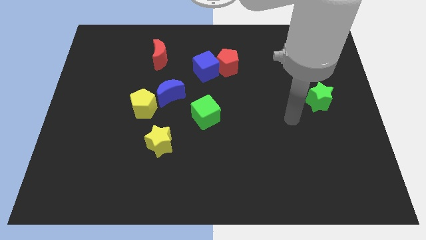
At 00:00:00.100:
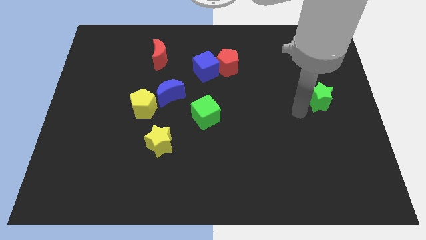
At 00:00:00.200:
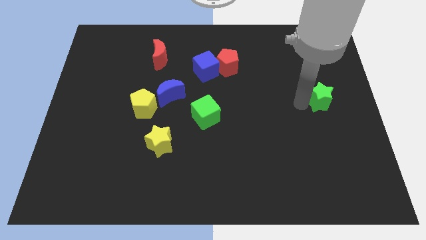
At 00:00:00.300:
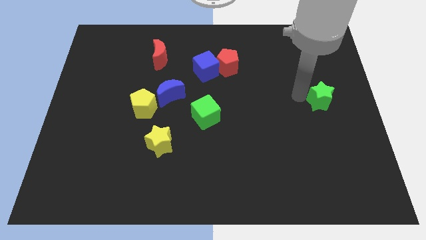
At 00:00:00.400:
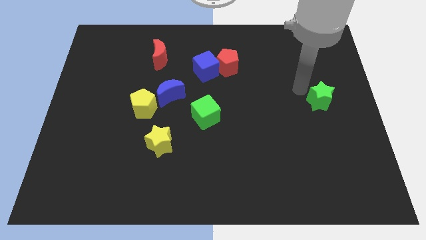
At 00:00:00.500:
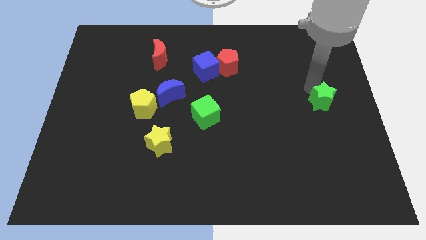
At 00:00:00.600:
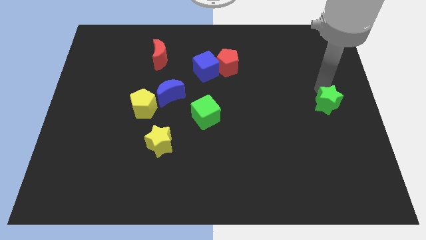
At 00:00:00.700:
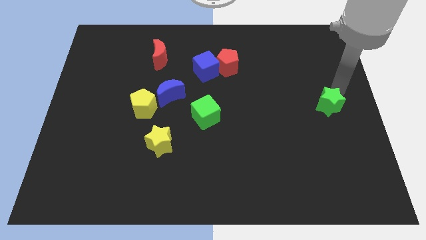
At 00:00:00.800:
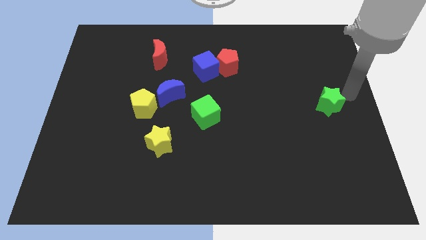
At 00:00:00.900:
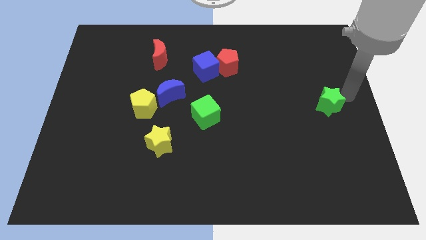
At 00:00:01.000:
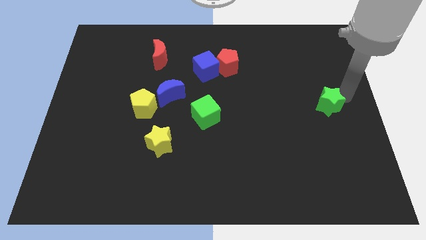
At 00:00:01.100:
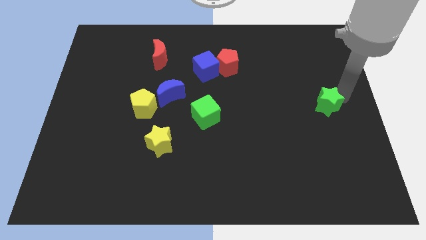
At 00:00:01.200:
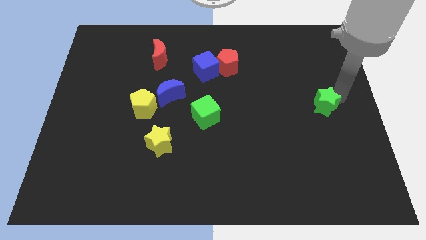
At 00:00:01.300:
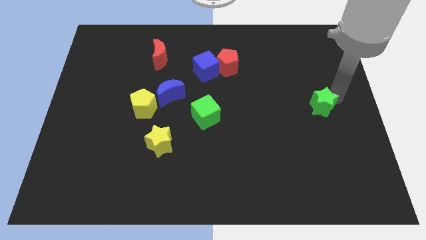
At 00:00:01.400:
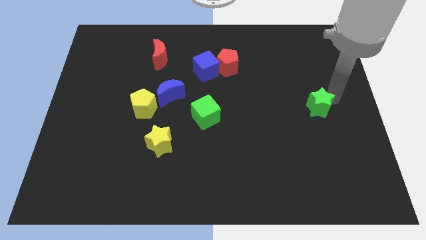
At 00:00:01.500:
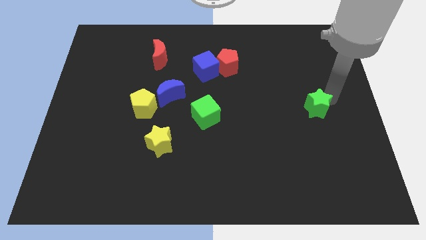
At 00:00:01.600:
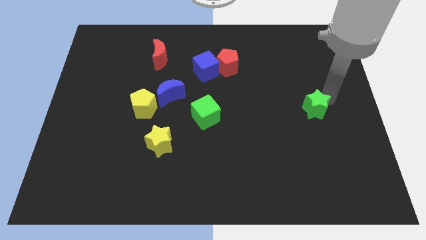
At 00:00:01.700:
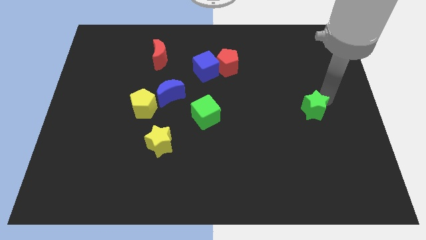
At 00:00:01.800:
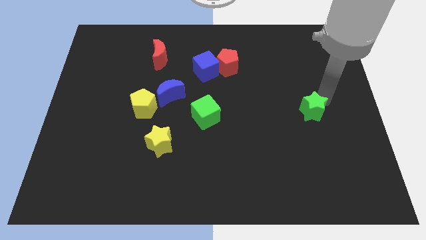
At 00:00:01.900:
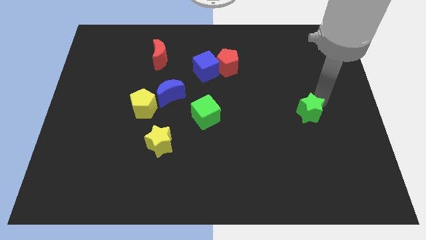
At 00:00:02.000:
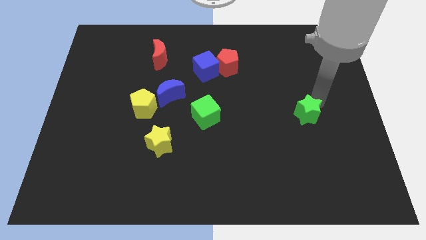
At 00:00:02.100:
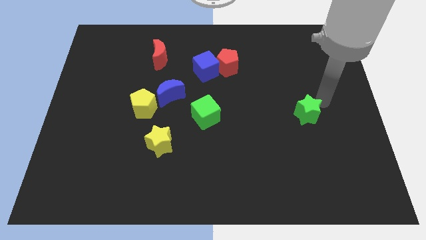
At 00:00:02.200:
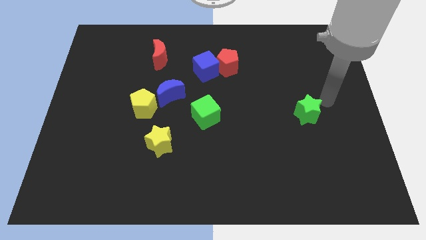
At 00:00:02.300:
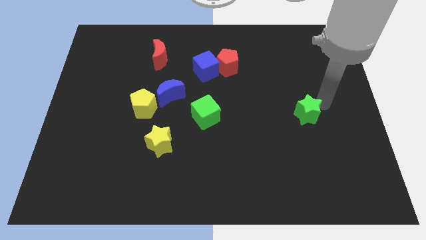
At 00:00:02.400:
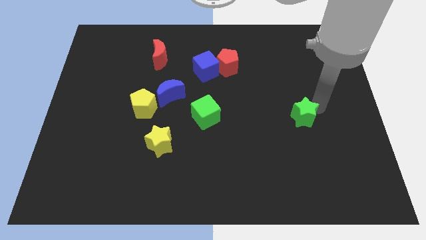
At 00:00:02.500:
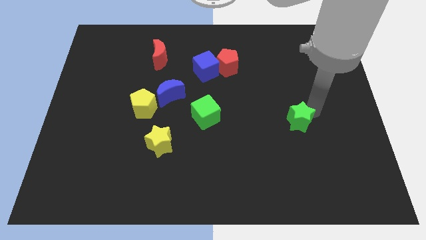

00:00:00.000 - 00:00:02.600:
slide the green star downwards and to the left diagonally a bit

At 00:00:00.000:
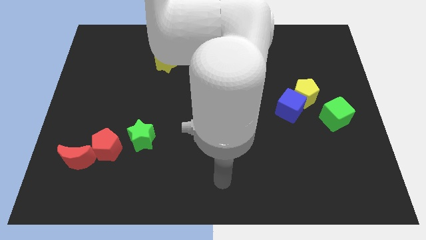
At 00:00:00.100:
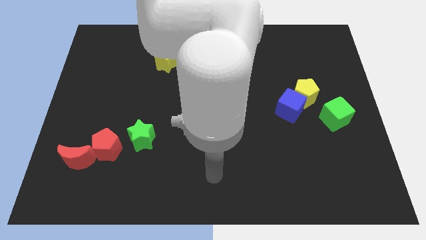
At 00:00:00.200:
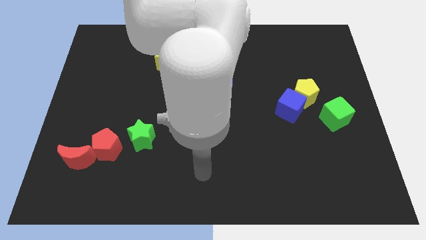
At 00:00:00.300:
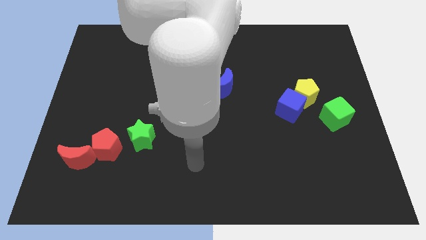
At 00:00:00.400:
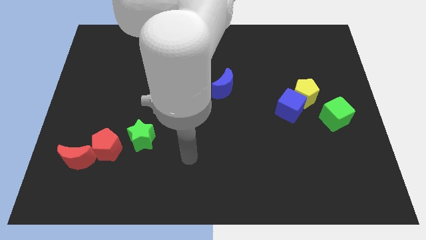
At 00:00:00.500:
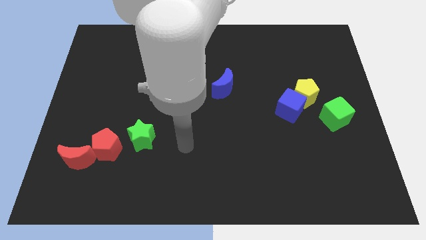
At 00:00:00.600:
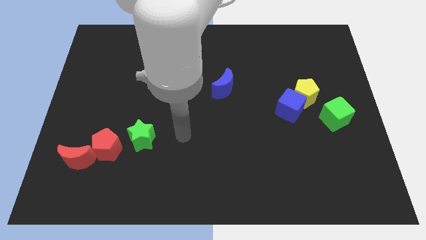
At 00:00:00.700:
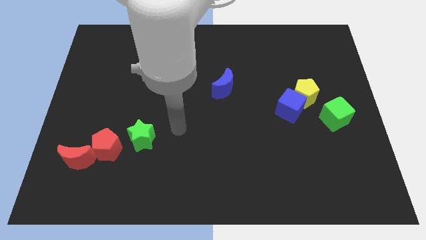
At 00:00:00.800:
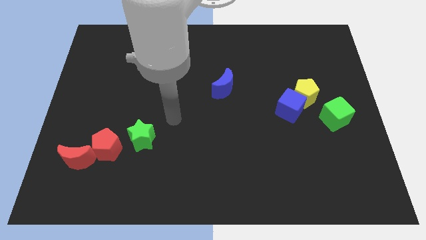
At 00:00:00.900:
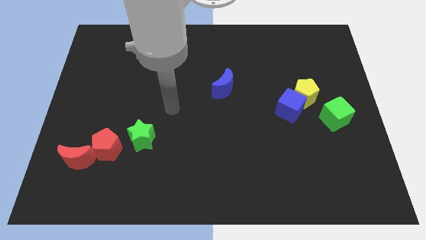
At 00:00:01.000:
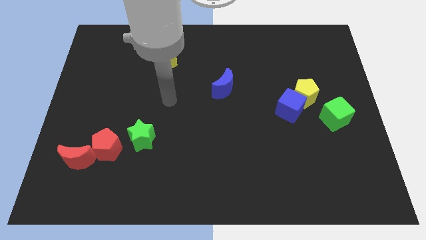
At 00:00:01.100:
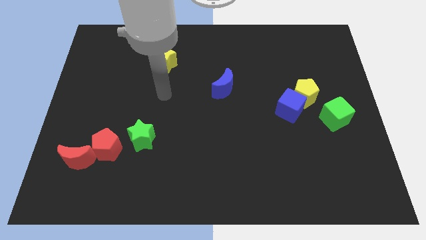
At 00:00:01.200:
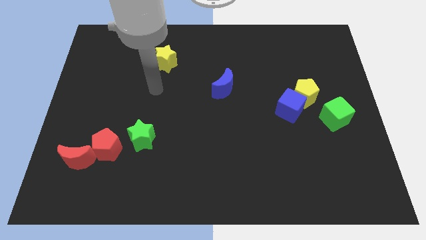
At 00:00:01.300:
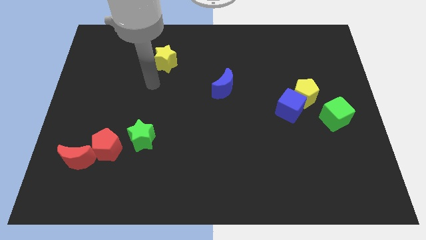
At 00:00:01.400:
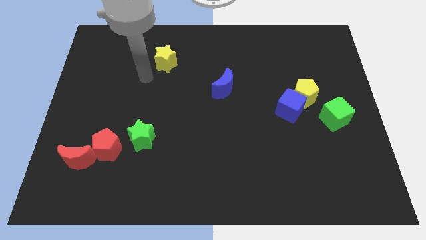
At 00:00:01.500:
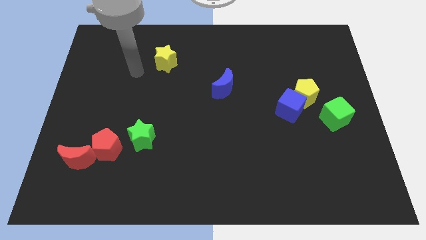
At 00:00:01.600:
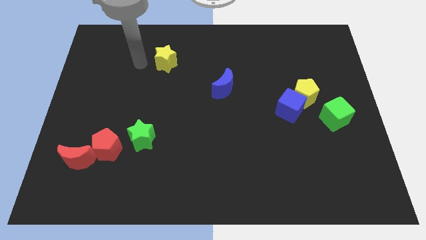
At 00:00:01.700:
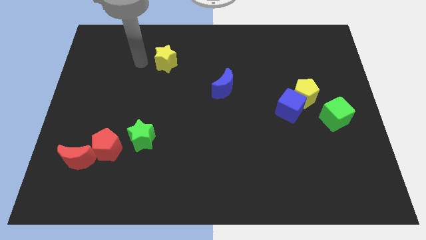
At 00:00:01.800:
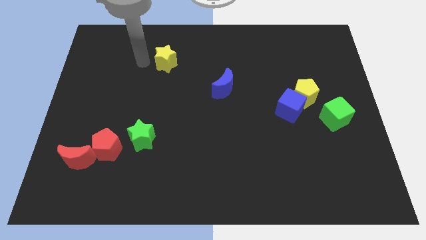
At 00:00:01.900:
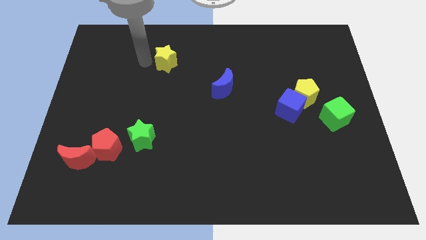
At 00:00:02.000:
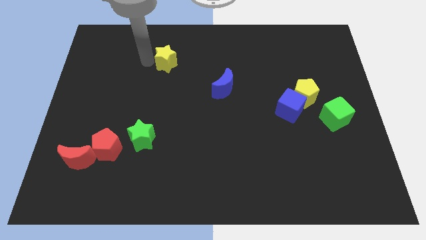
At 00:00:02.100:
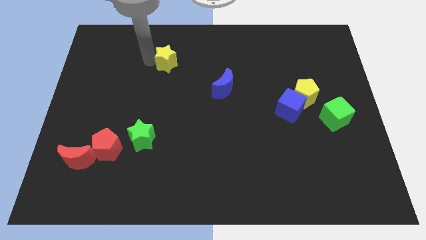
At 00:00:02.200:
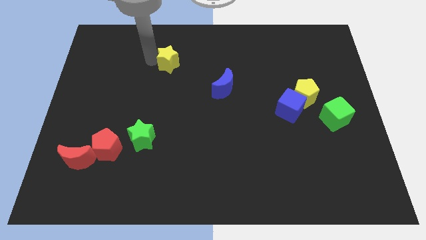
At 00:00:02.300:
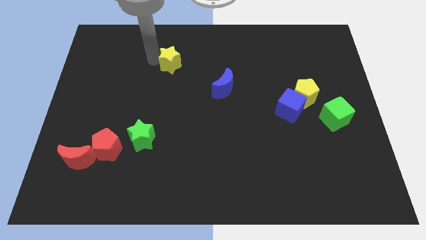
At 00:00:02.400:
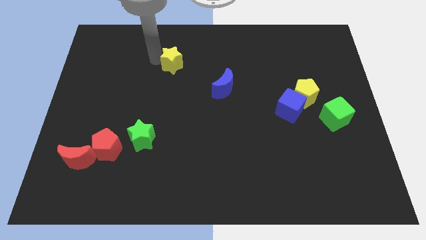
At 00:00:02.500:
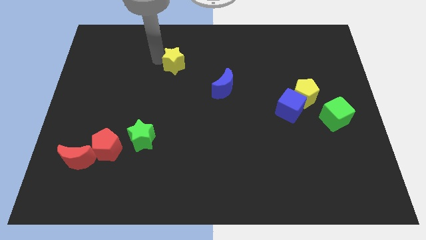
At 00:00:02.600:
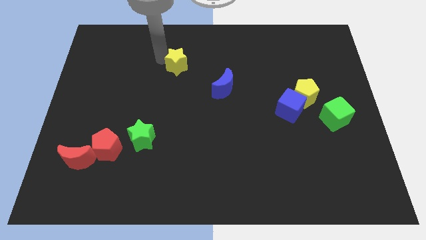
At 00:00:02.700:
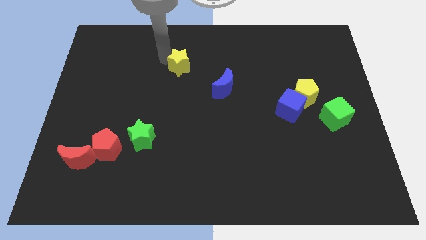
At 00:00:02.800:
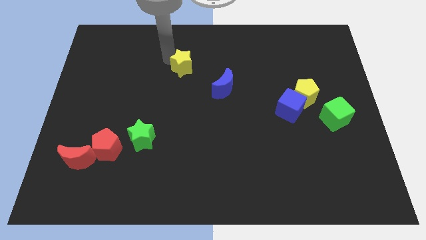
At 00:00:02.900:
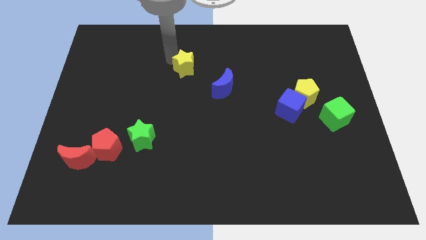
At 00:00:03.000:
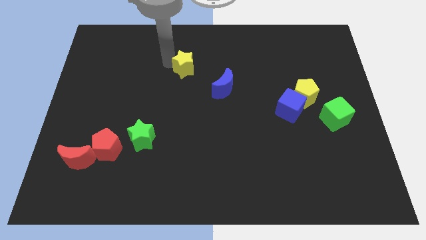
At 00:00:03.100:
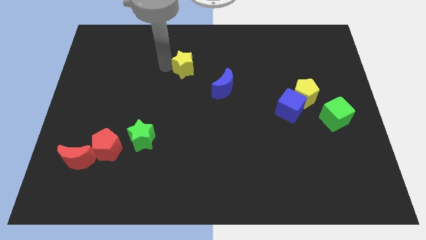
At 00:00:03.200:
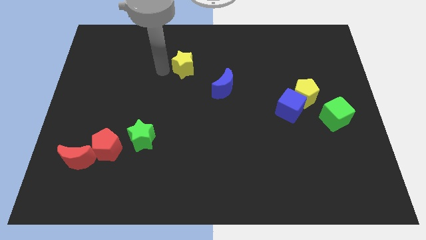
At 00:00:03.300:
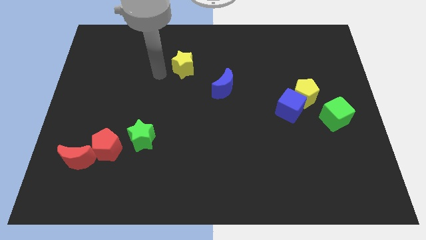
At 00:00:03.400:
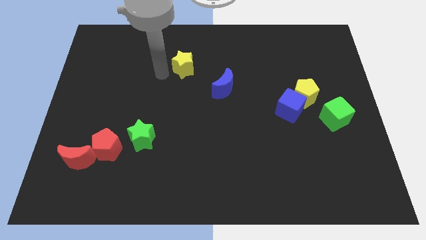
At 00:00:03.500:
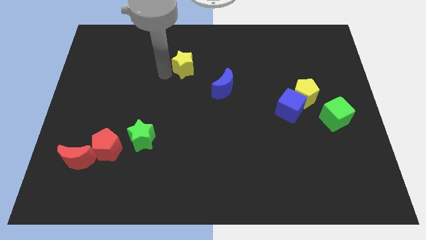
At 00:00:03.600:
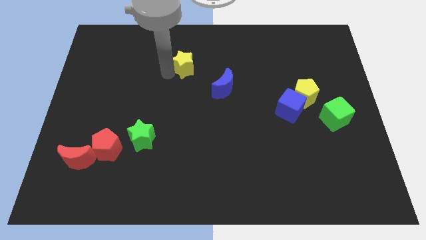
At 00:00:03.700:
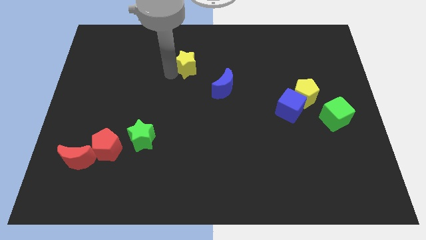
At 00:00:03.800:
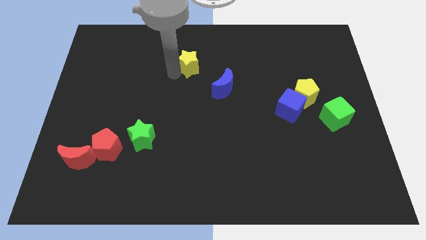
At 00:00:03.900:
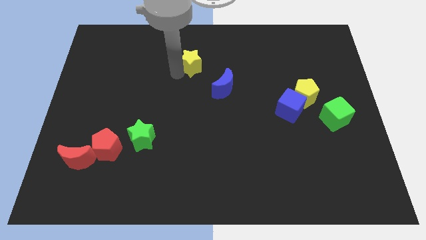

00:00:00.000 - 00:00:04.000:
push the yellow star to the right somewhat

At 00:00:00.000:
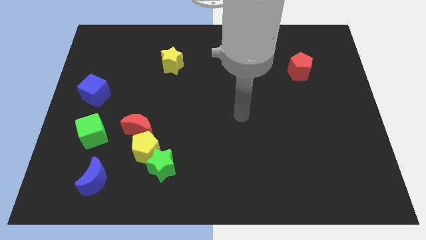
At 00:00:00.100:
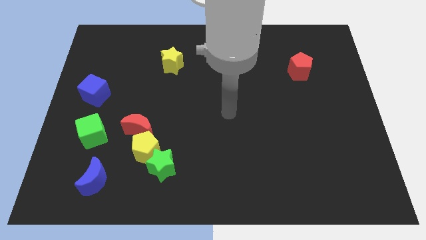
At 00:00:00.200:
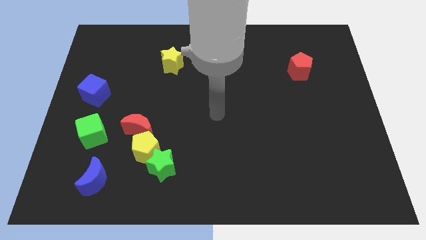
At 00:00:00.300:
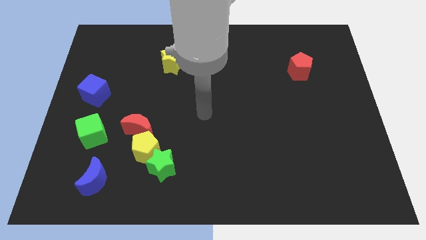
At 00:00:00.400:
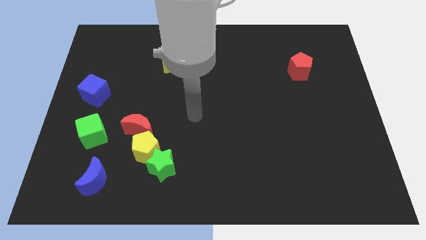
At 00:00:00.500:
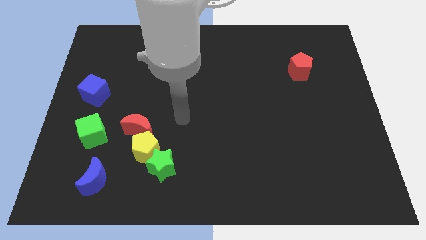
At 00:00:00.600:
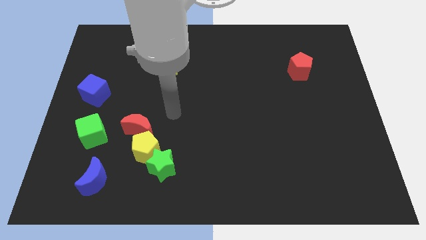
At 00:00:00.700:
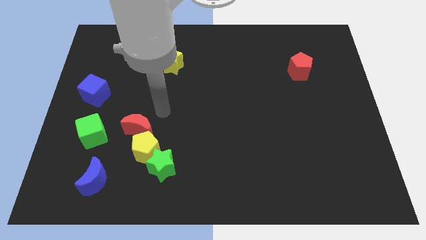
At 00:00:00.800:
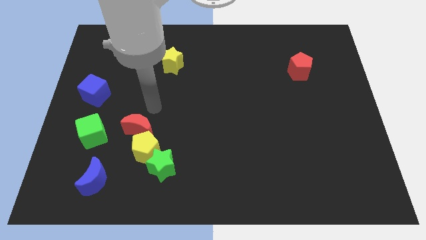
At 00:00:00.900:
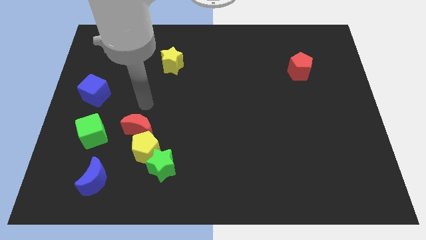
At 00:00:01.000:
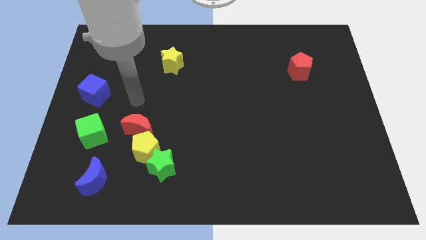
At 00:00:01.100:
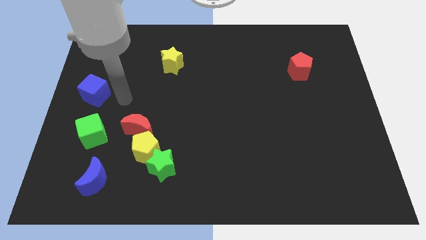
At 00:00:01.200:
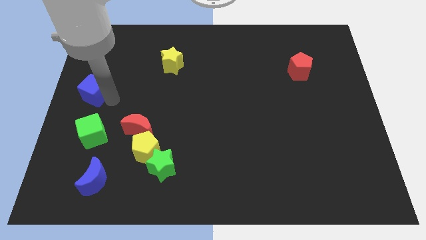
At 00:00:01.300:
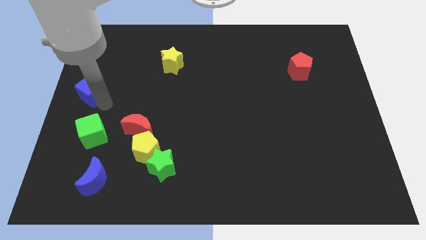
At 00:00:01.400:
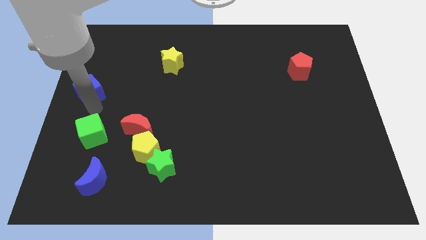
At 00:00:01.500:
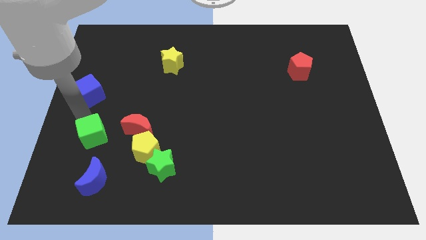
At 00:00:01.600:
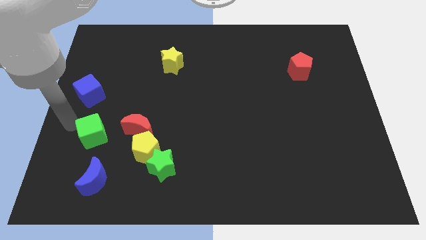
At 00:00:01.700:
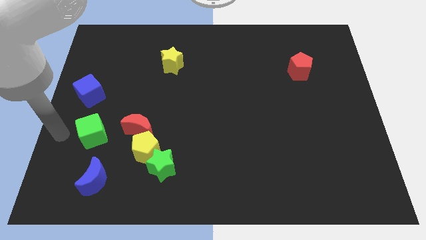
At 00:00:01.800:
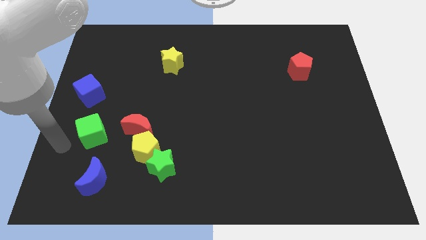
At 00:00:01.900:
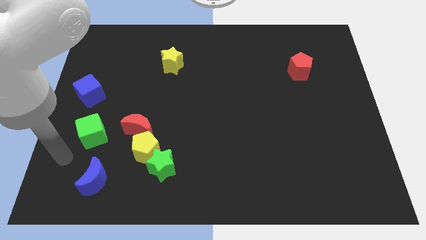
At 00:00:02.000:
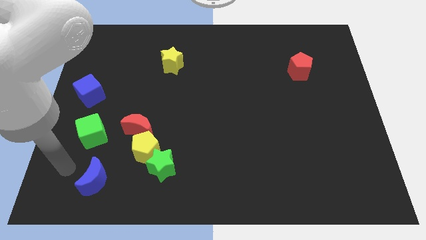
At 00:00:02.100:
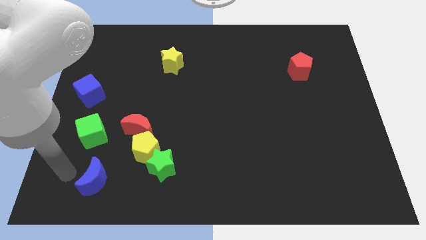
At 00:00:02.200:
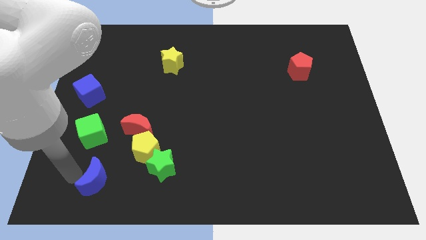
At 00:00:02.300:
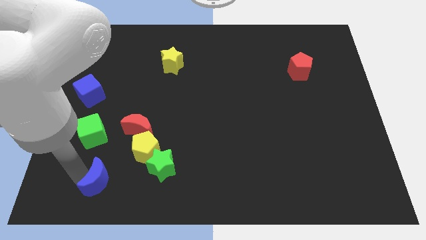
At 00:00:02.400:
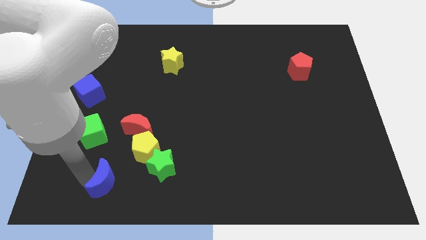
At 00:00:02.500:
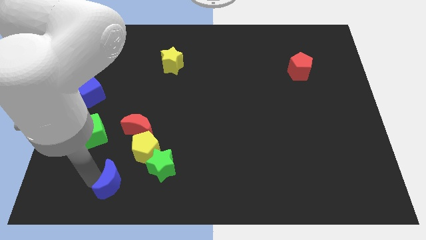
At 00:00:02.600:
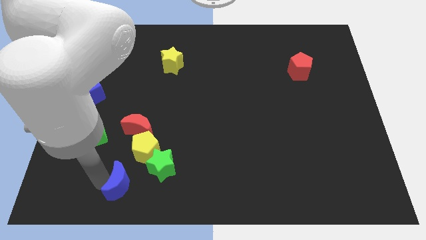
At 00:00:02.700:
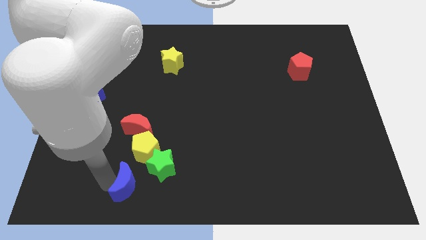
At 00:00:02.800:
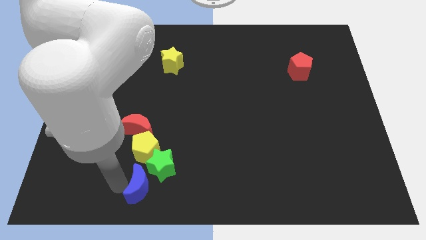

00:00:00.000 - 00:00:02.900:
push the blue moon somewhat to the right
